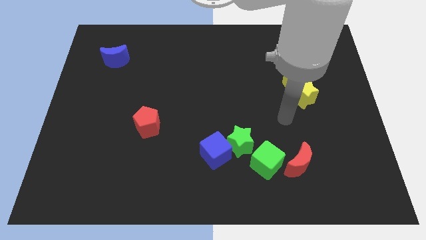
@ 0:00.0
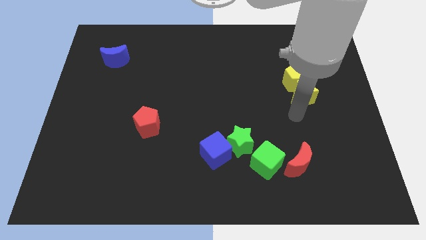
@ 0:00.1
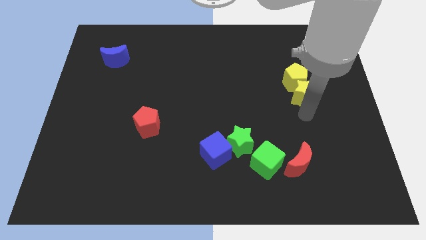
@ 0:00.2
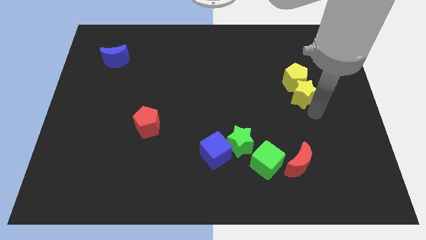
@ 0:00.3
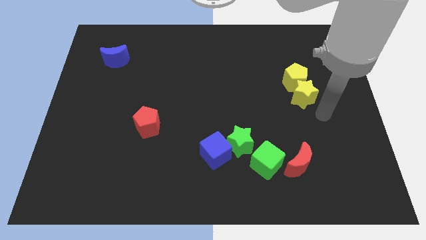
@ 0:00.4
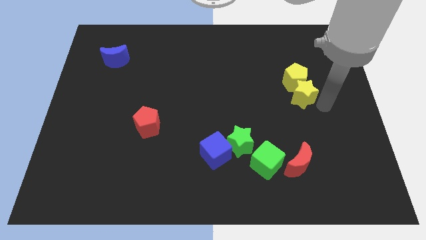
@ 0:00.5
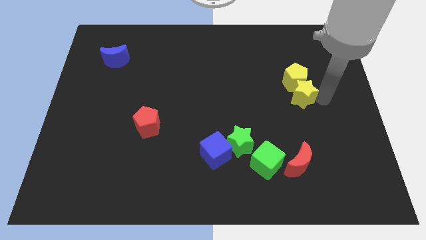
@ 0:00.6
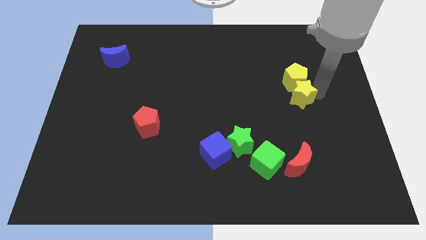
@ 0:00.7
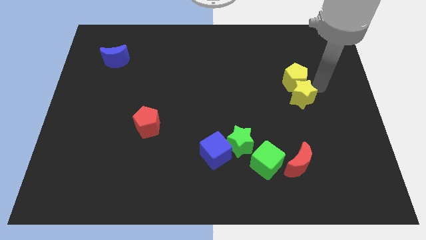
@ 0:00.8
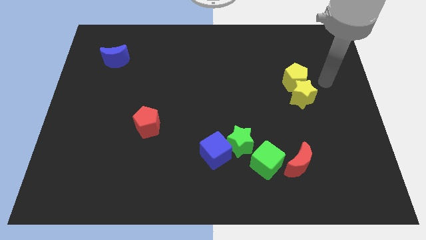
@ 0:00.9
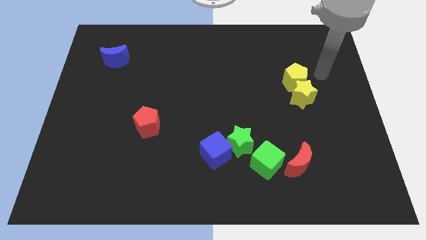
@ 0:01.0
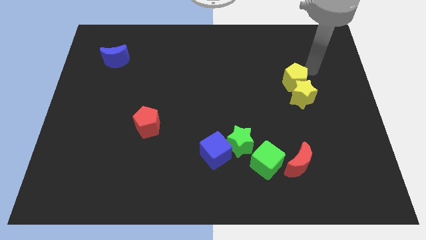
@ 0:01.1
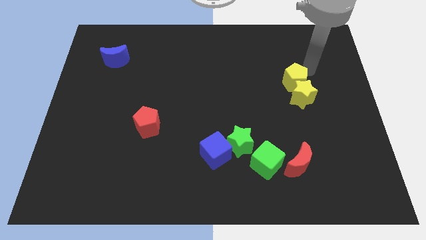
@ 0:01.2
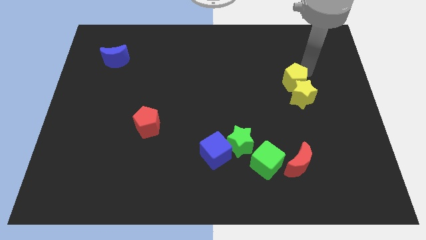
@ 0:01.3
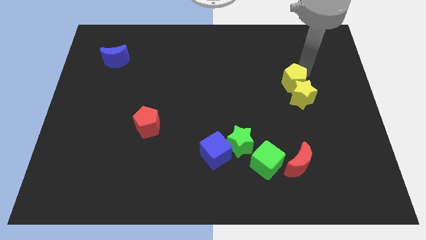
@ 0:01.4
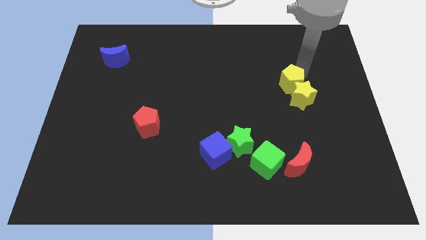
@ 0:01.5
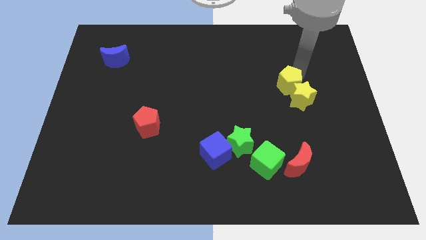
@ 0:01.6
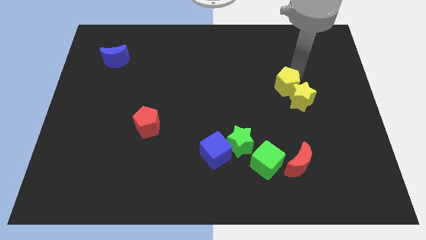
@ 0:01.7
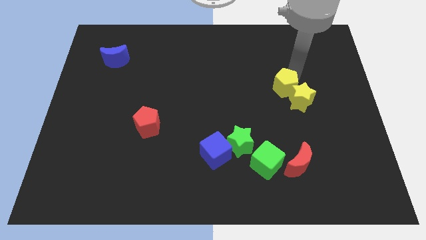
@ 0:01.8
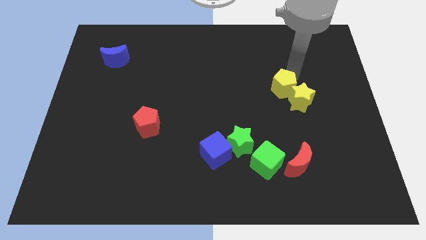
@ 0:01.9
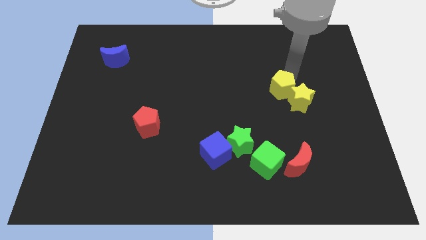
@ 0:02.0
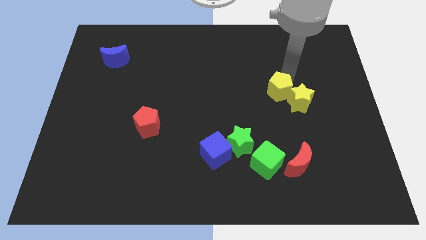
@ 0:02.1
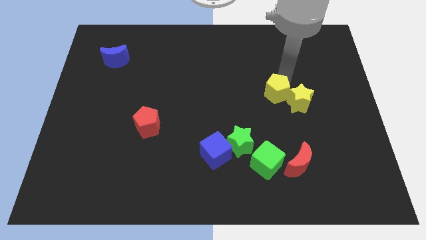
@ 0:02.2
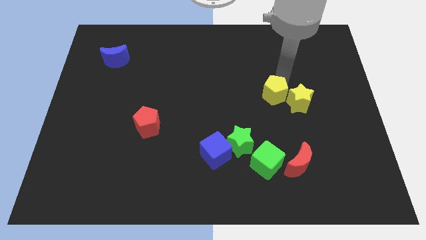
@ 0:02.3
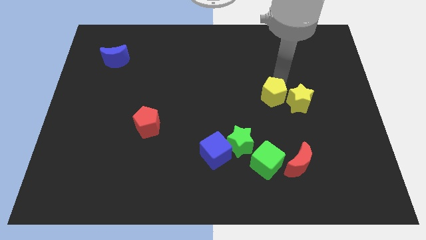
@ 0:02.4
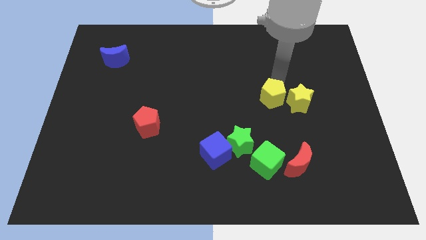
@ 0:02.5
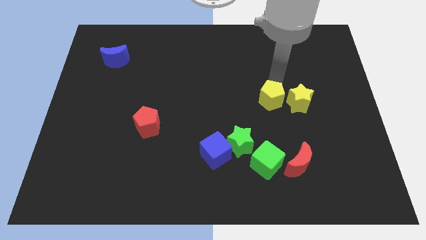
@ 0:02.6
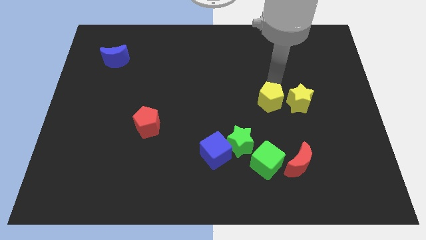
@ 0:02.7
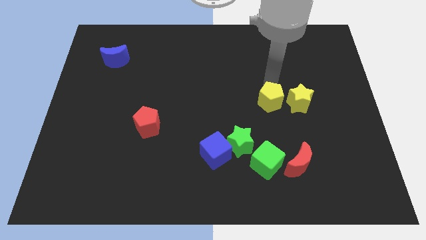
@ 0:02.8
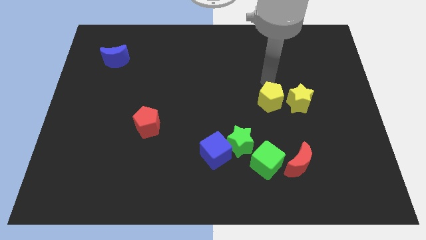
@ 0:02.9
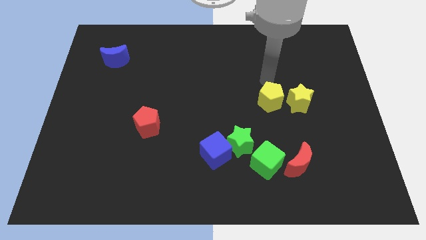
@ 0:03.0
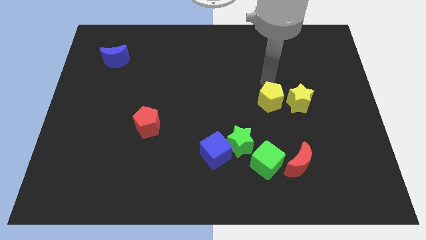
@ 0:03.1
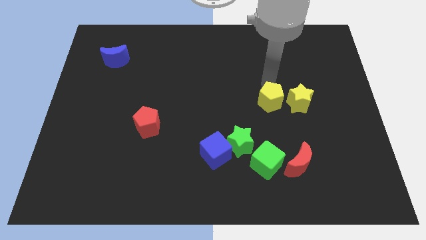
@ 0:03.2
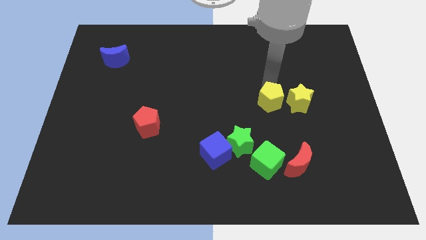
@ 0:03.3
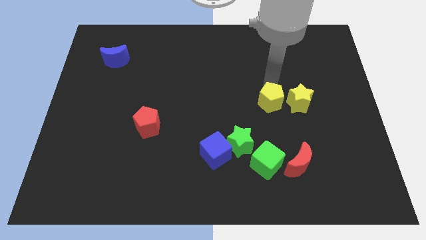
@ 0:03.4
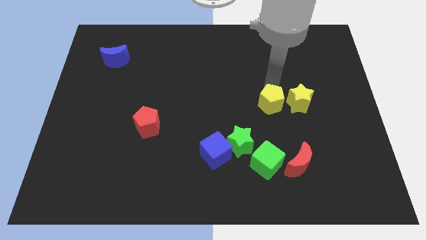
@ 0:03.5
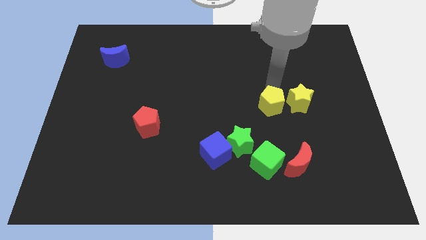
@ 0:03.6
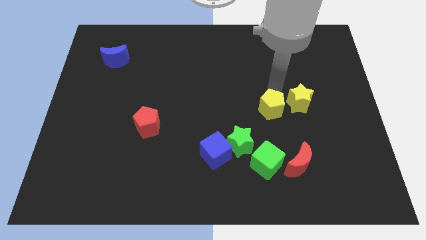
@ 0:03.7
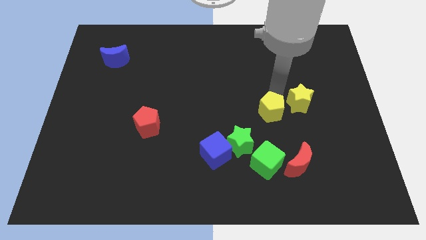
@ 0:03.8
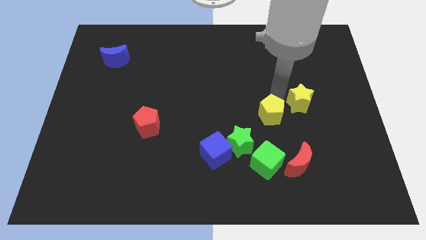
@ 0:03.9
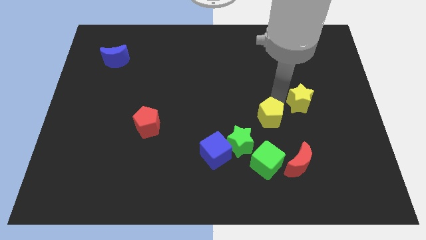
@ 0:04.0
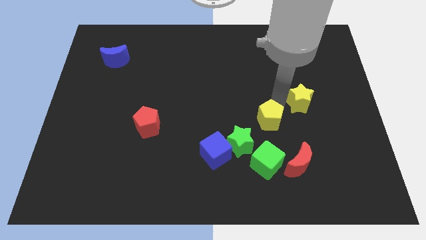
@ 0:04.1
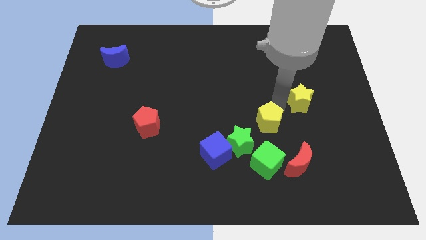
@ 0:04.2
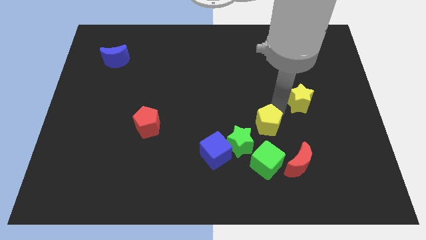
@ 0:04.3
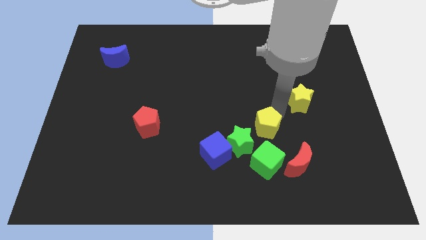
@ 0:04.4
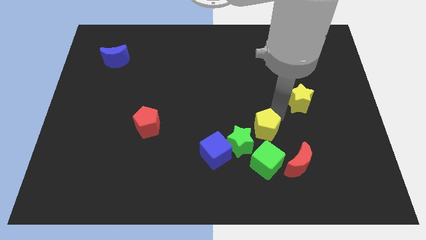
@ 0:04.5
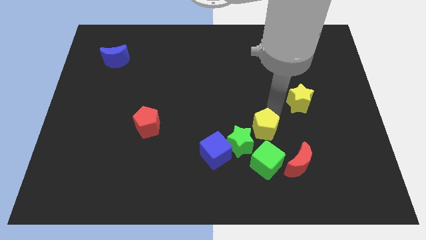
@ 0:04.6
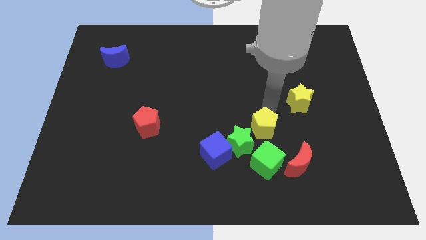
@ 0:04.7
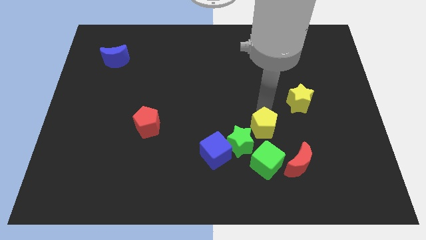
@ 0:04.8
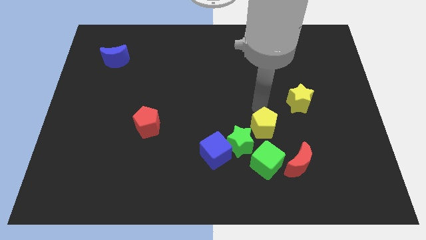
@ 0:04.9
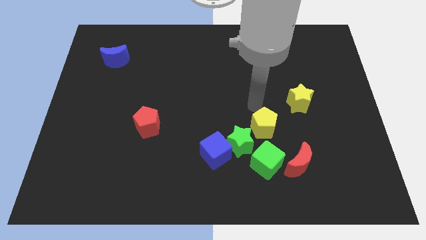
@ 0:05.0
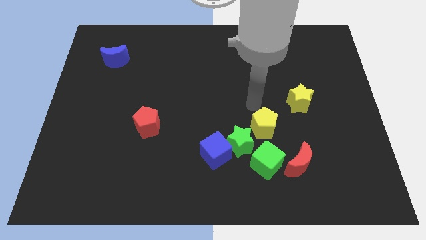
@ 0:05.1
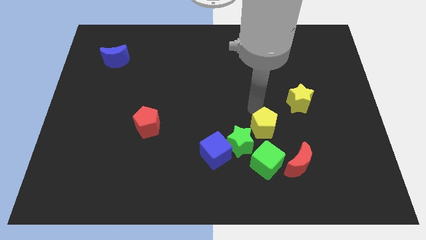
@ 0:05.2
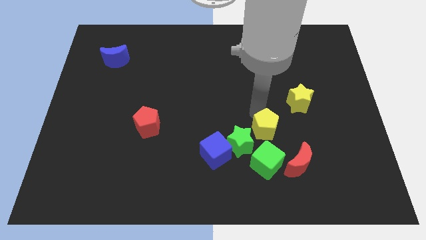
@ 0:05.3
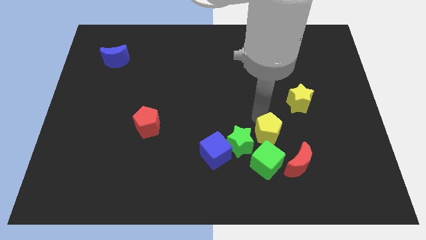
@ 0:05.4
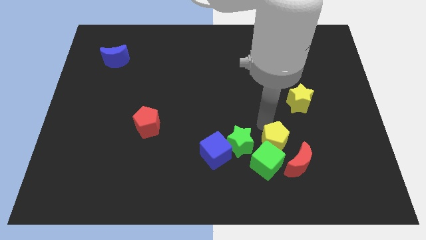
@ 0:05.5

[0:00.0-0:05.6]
put the yellow pentagon towards the green cube

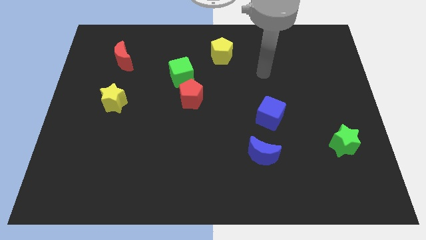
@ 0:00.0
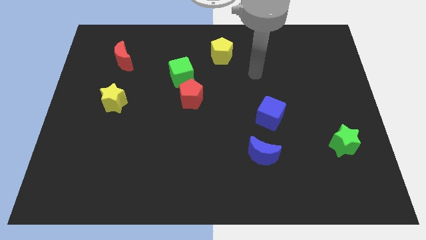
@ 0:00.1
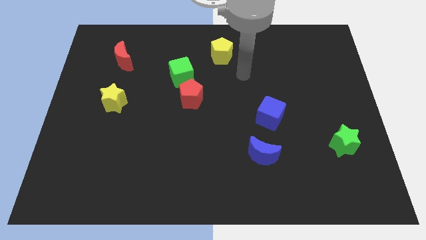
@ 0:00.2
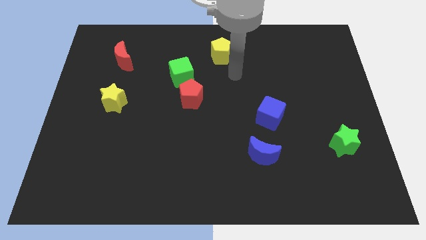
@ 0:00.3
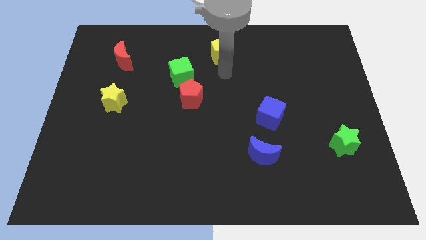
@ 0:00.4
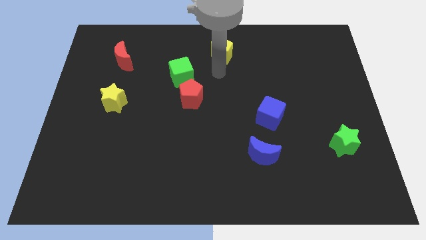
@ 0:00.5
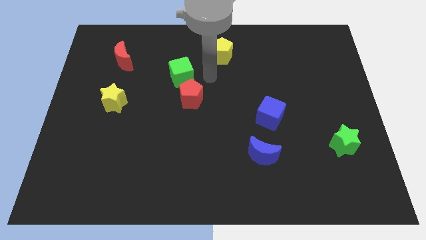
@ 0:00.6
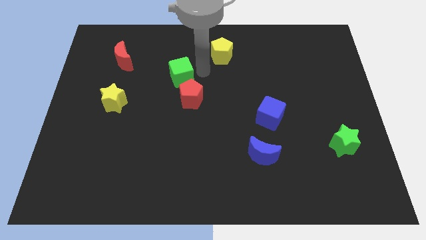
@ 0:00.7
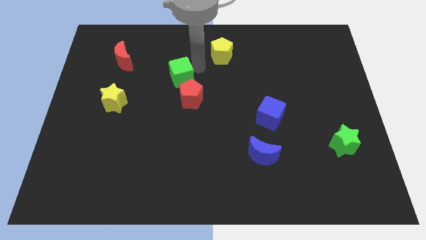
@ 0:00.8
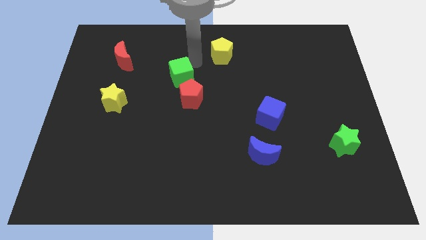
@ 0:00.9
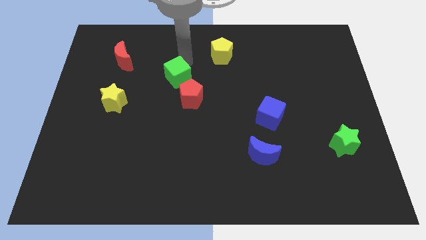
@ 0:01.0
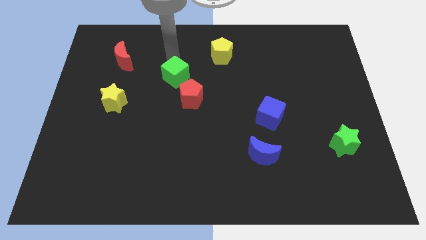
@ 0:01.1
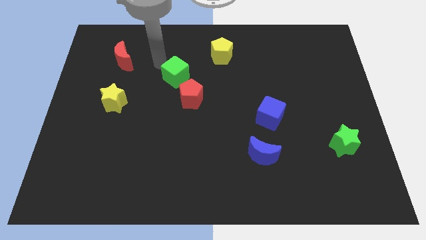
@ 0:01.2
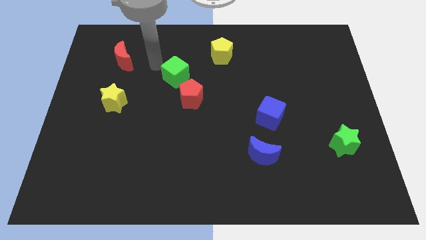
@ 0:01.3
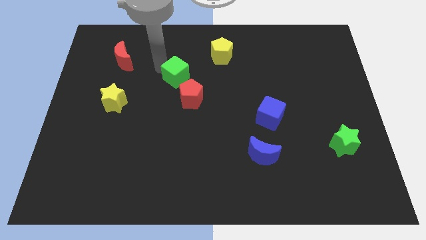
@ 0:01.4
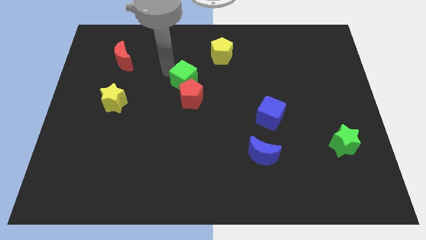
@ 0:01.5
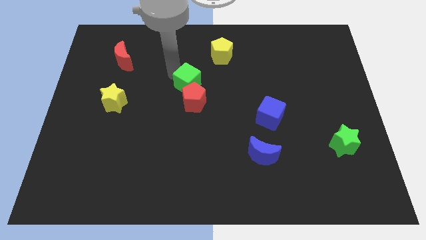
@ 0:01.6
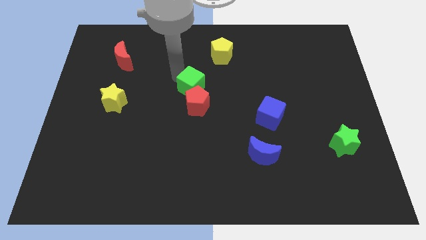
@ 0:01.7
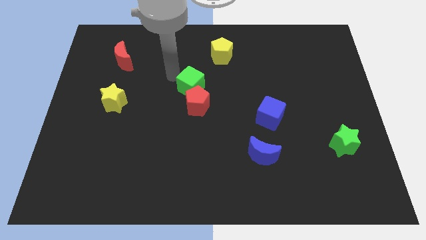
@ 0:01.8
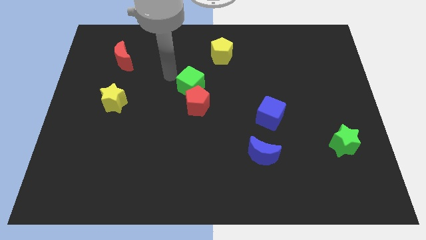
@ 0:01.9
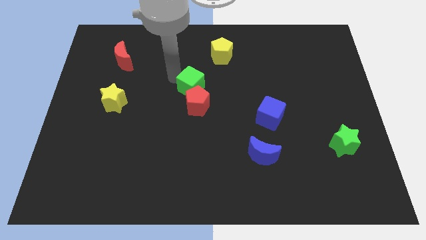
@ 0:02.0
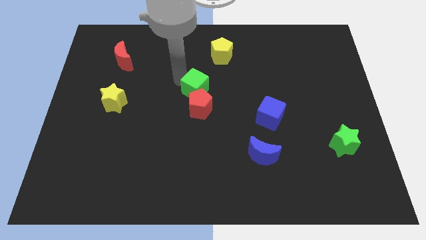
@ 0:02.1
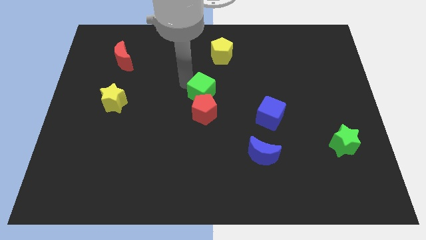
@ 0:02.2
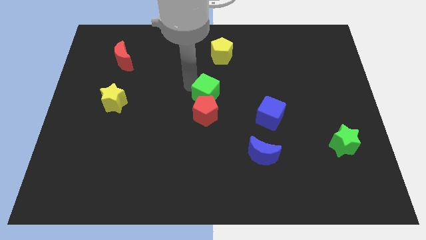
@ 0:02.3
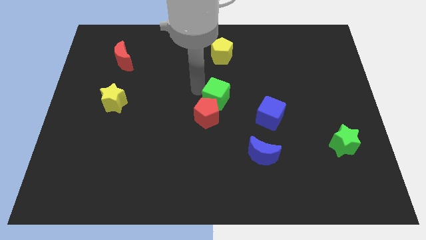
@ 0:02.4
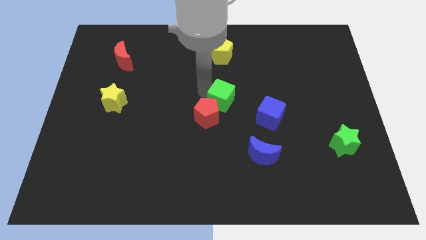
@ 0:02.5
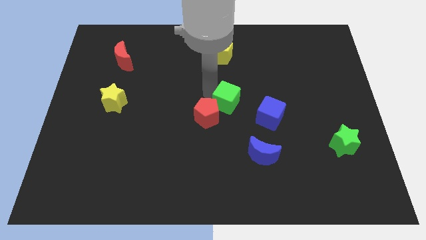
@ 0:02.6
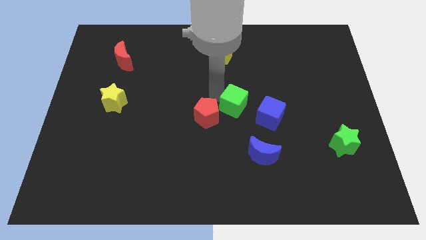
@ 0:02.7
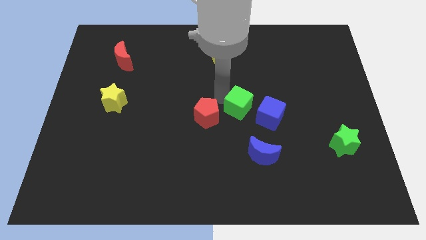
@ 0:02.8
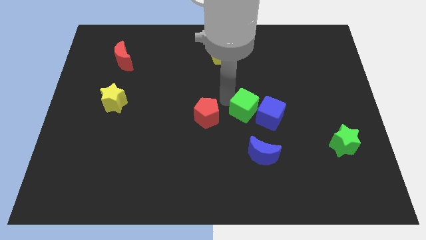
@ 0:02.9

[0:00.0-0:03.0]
put the green cube next to the blue cube
